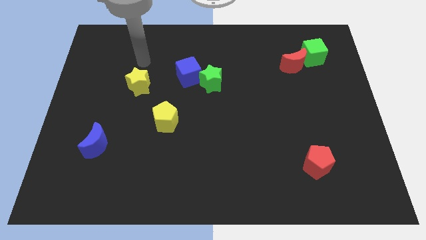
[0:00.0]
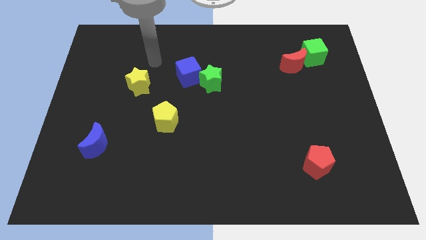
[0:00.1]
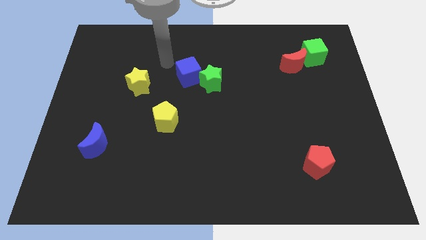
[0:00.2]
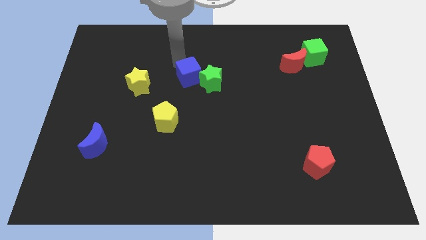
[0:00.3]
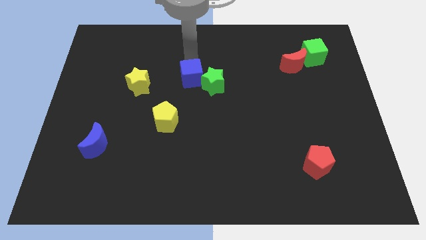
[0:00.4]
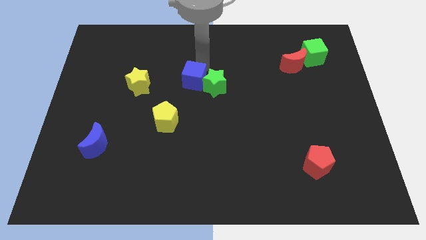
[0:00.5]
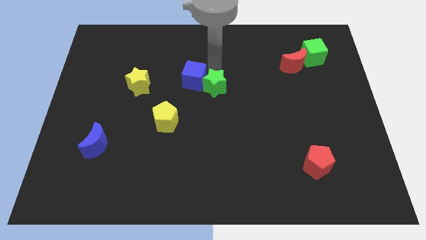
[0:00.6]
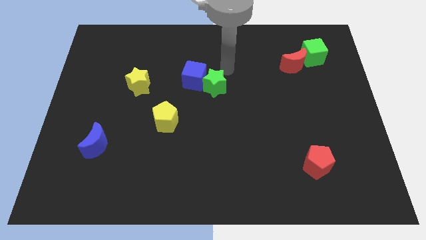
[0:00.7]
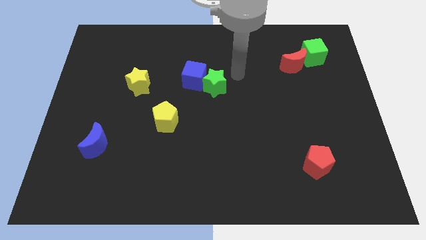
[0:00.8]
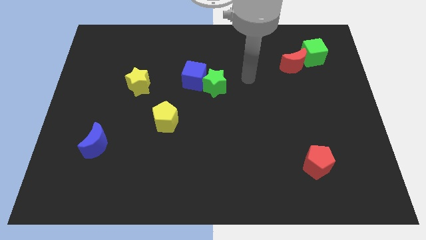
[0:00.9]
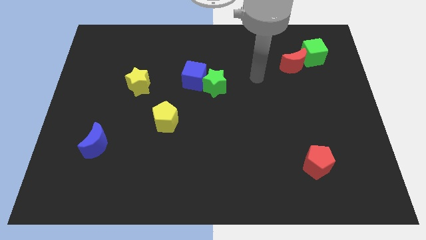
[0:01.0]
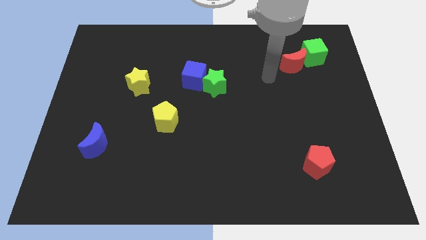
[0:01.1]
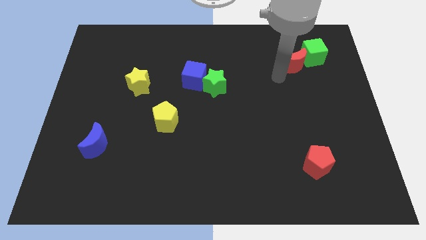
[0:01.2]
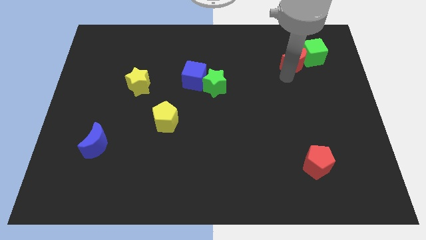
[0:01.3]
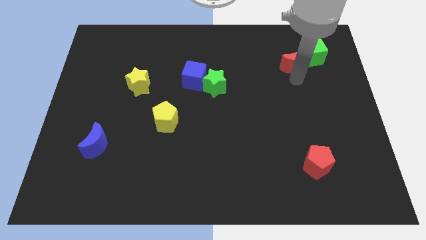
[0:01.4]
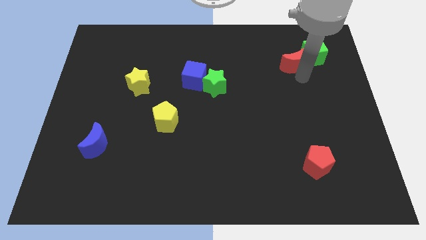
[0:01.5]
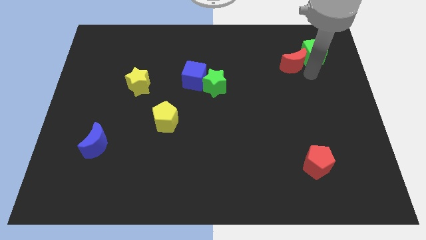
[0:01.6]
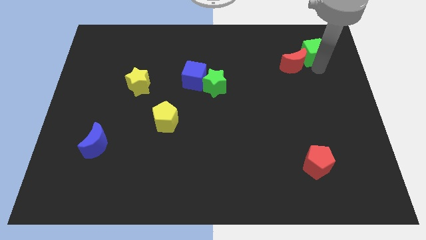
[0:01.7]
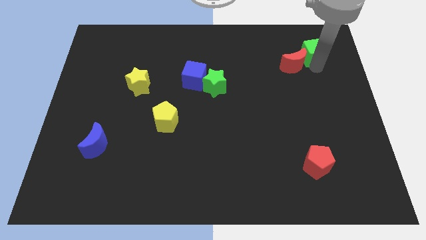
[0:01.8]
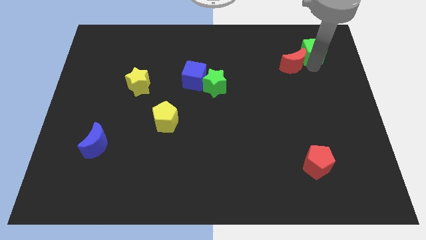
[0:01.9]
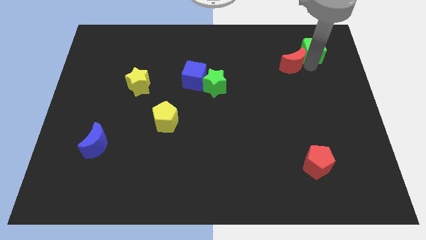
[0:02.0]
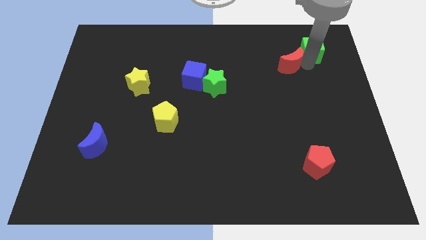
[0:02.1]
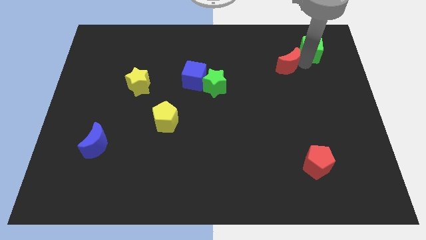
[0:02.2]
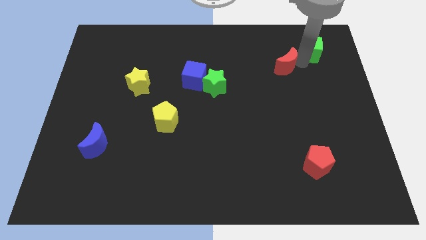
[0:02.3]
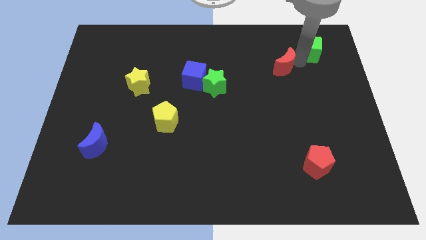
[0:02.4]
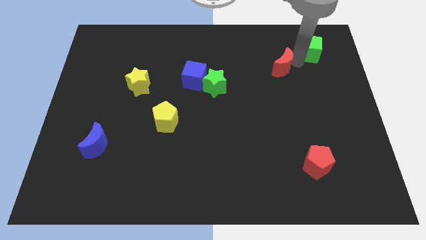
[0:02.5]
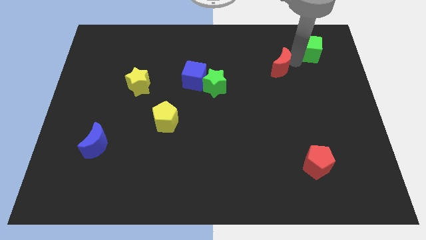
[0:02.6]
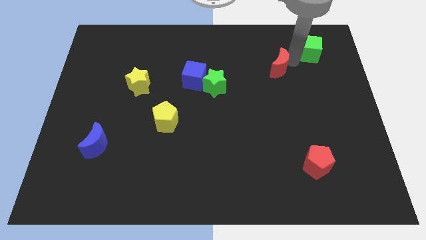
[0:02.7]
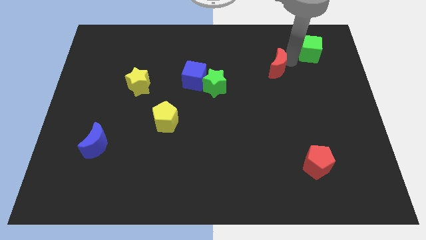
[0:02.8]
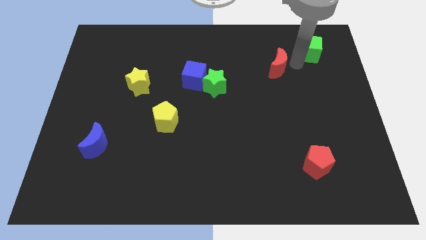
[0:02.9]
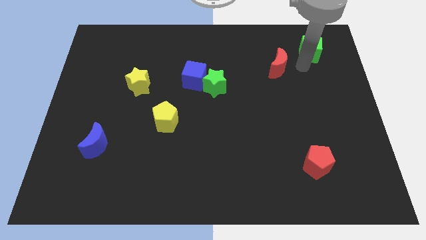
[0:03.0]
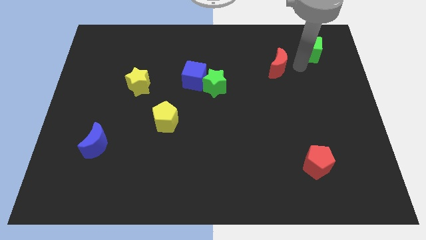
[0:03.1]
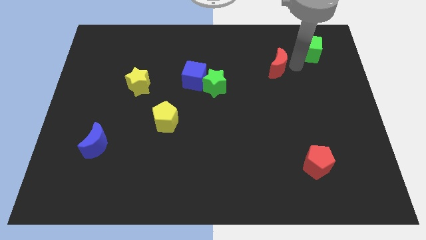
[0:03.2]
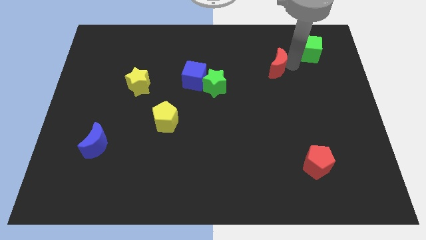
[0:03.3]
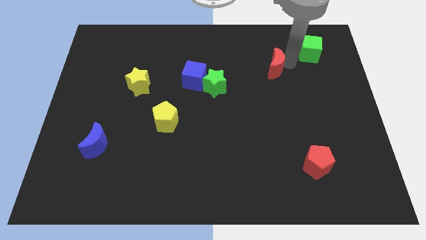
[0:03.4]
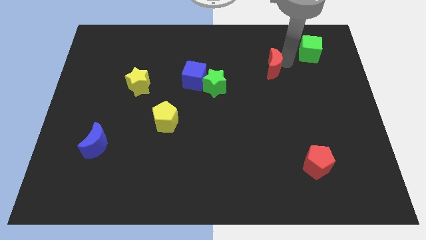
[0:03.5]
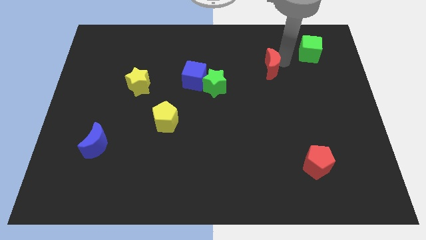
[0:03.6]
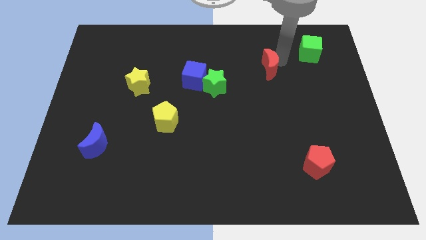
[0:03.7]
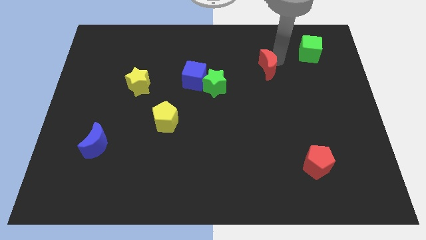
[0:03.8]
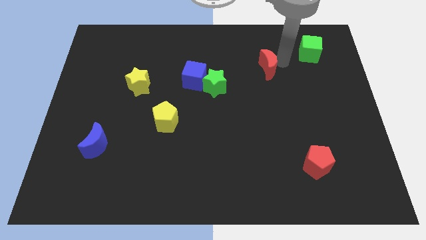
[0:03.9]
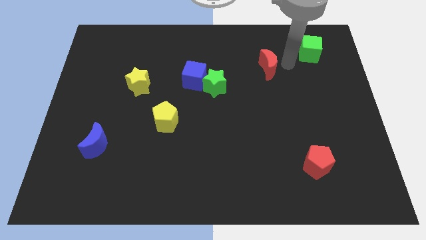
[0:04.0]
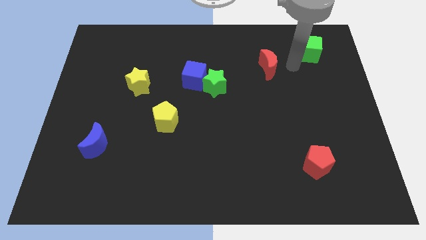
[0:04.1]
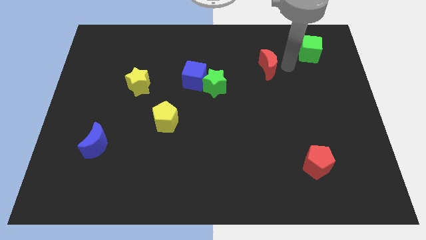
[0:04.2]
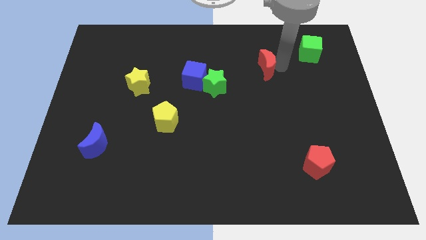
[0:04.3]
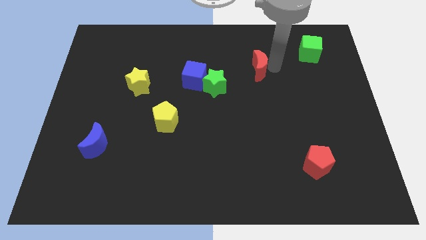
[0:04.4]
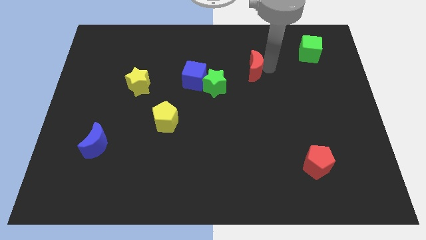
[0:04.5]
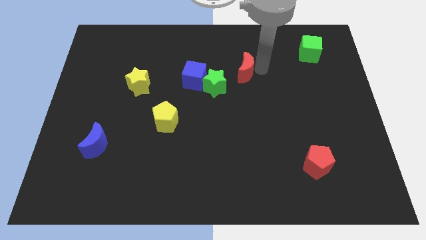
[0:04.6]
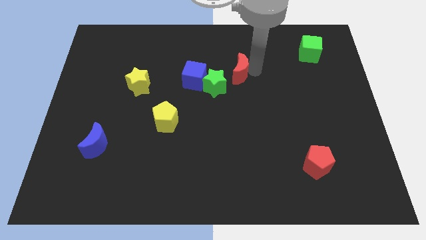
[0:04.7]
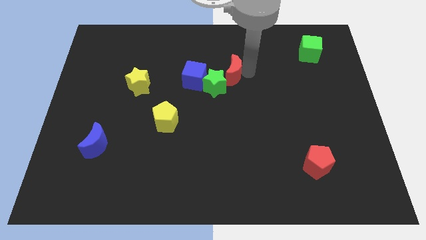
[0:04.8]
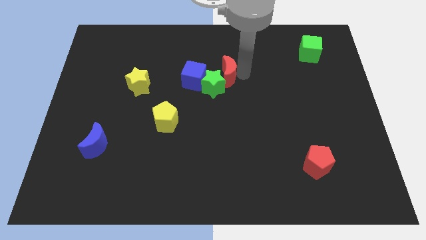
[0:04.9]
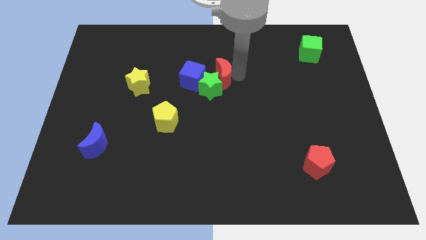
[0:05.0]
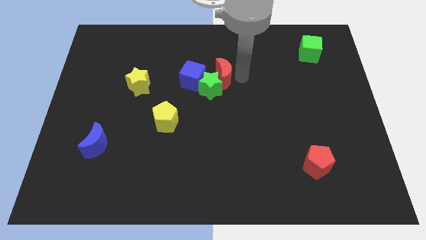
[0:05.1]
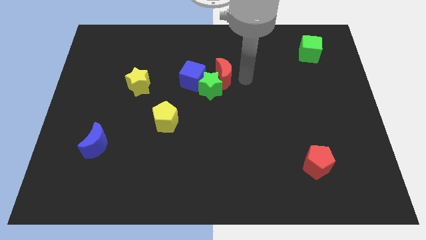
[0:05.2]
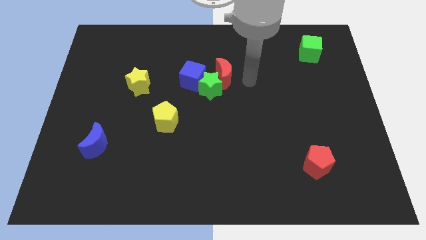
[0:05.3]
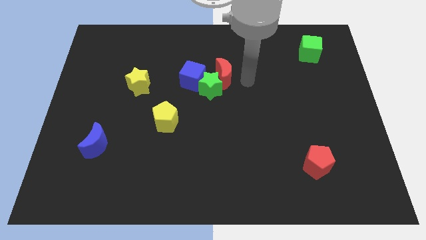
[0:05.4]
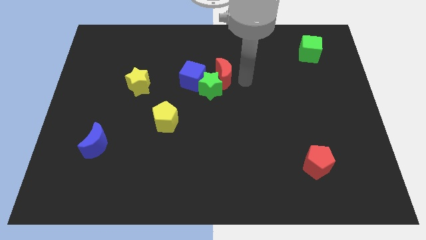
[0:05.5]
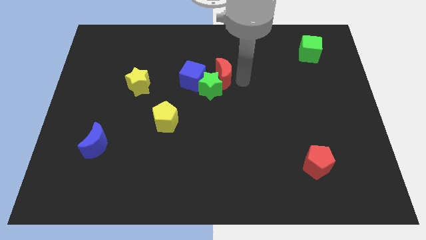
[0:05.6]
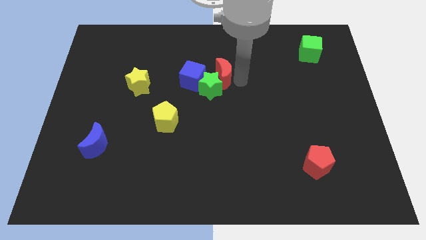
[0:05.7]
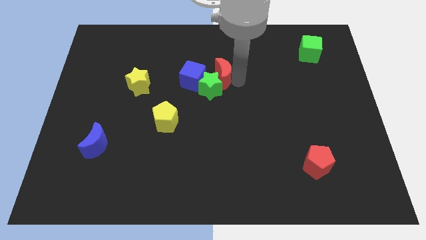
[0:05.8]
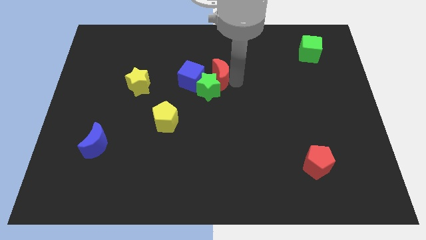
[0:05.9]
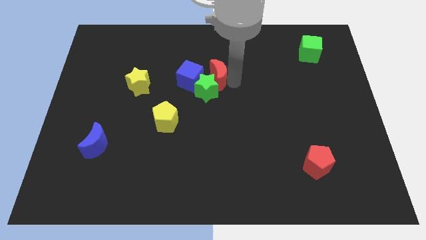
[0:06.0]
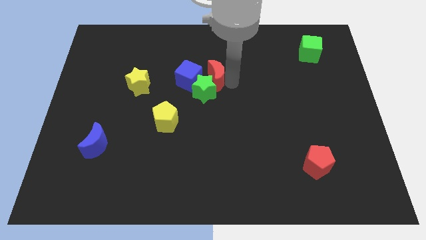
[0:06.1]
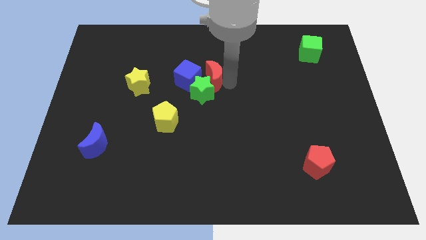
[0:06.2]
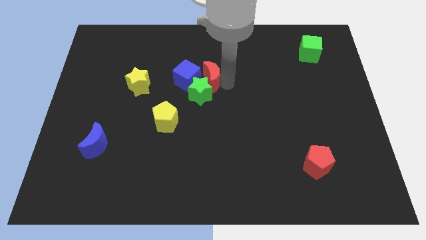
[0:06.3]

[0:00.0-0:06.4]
move the red moon towards the blue cube
